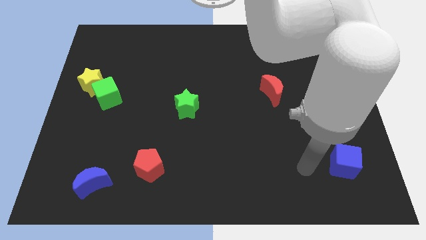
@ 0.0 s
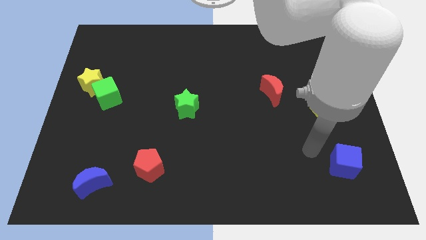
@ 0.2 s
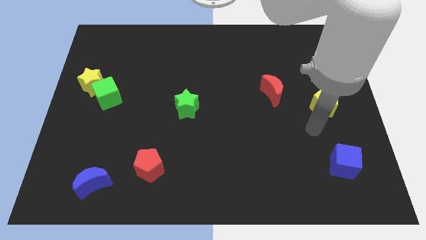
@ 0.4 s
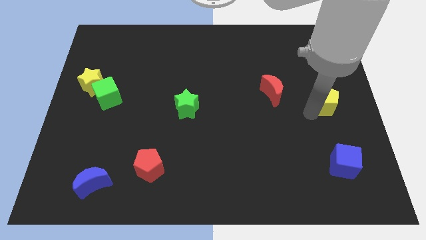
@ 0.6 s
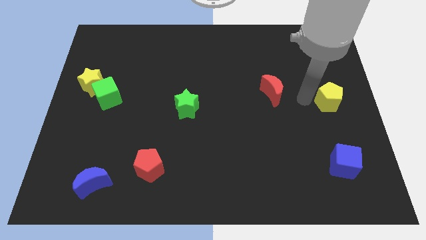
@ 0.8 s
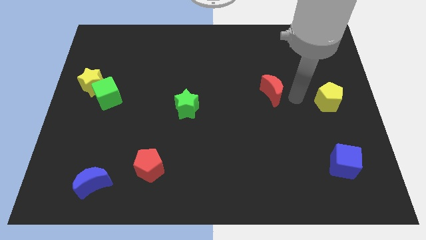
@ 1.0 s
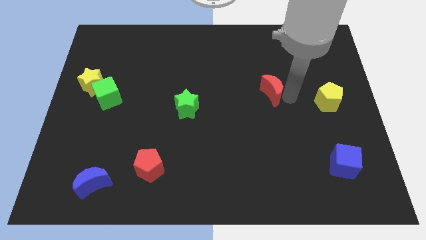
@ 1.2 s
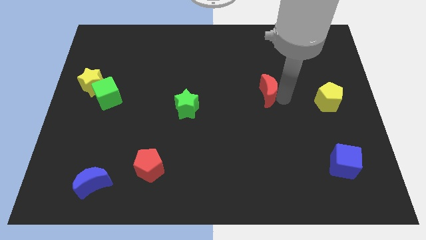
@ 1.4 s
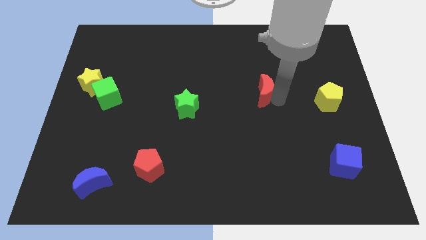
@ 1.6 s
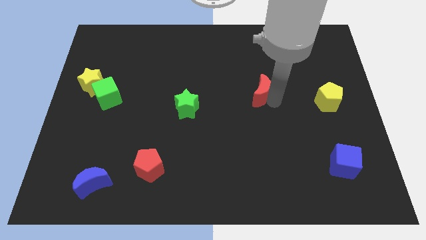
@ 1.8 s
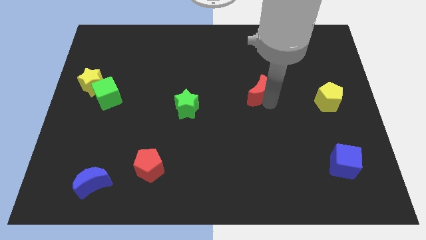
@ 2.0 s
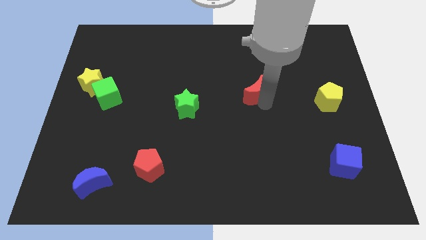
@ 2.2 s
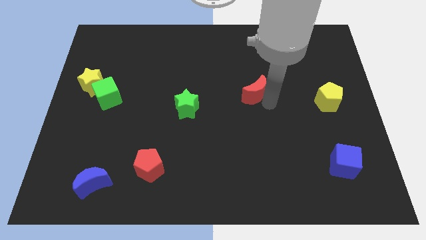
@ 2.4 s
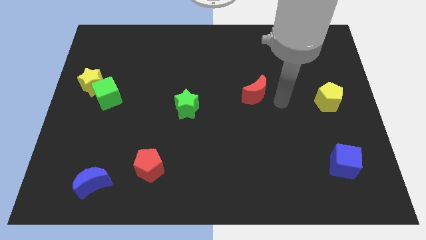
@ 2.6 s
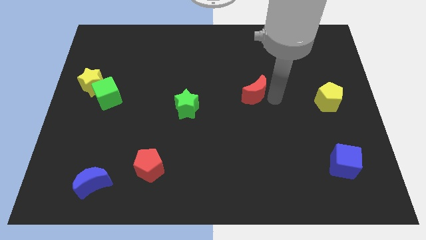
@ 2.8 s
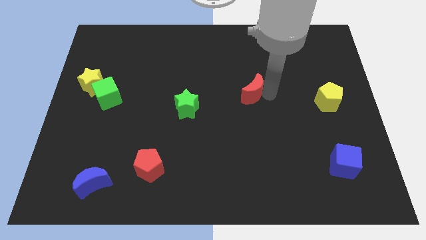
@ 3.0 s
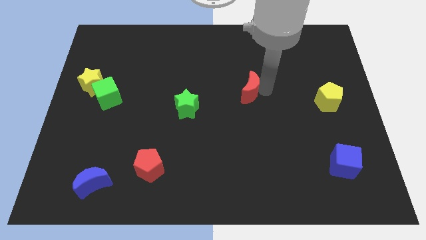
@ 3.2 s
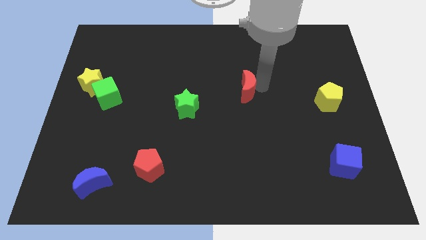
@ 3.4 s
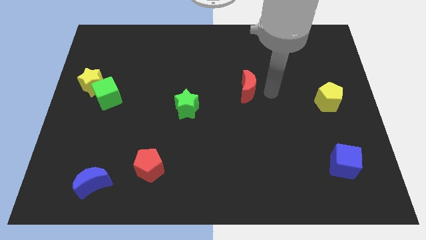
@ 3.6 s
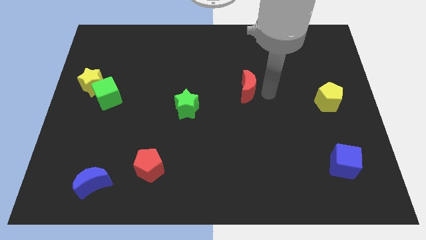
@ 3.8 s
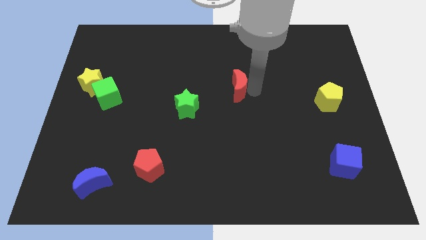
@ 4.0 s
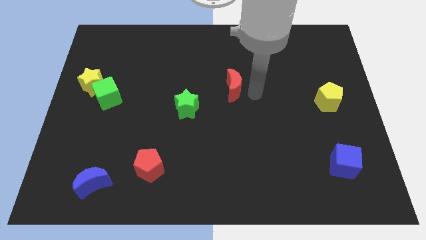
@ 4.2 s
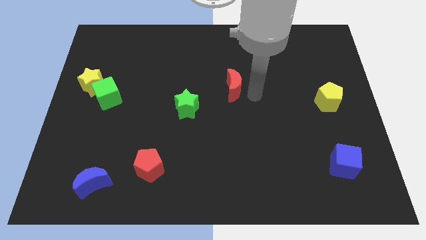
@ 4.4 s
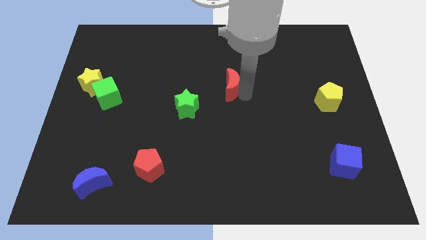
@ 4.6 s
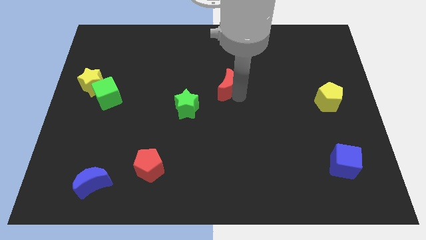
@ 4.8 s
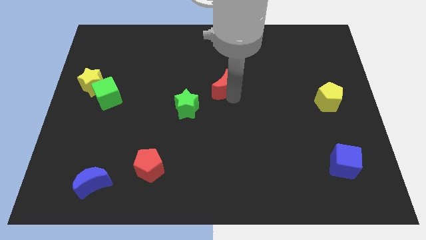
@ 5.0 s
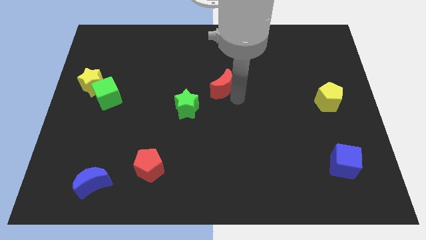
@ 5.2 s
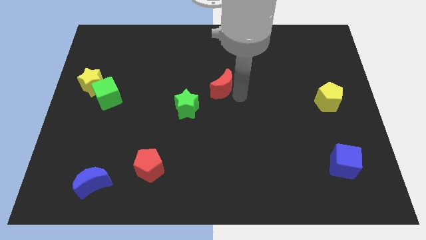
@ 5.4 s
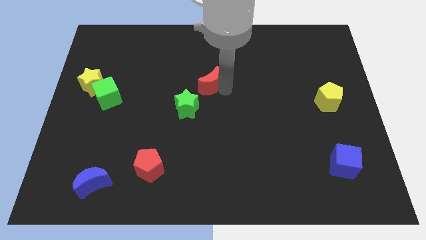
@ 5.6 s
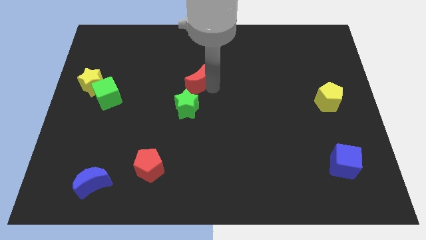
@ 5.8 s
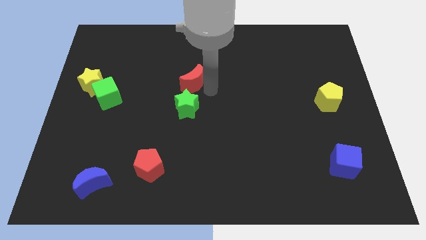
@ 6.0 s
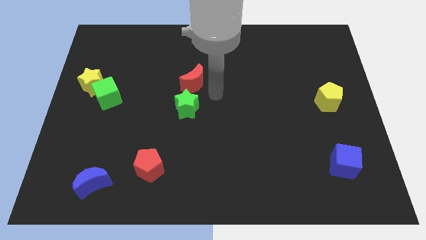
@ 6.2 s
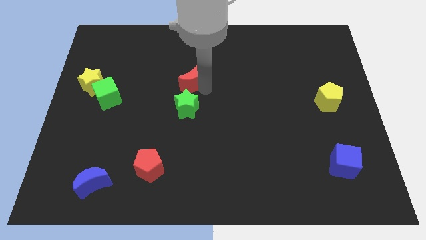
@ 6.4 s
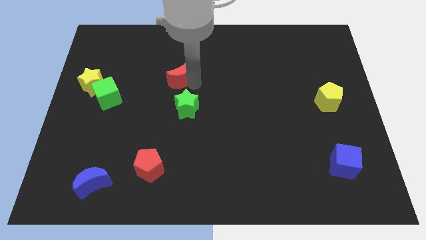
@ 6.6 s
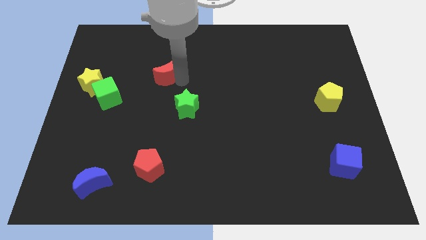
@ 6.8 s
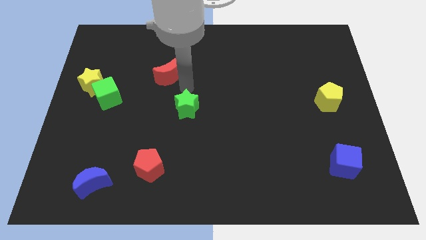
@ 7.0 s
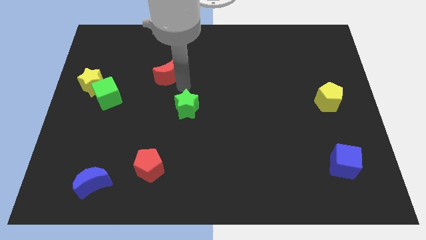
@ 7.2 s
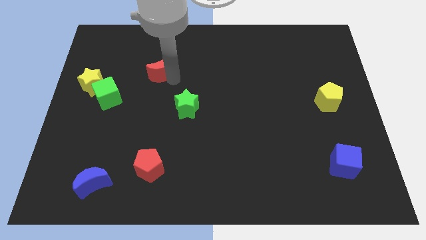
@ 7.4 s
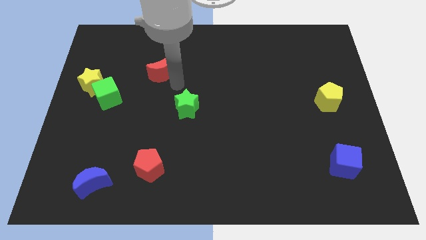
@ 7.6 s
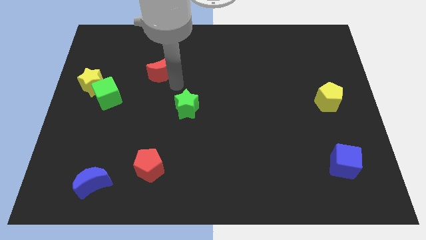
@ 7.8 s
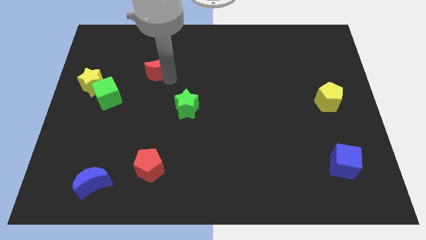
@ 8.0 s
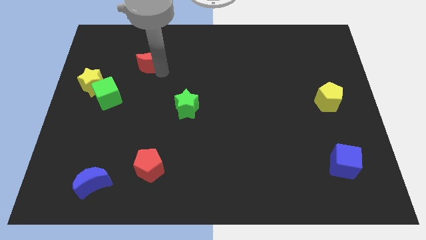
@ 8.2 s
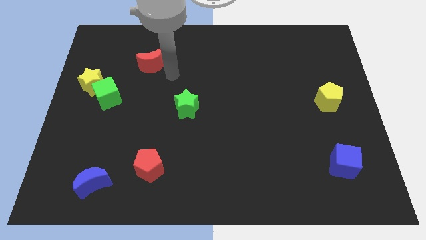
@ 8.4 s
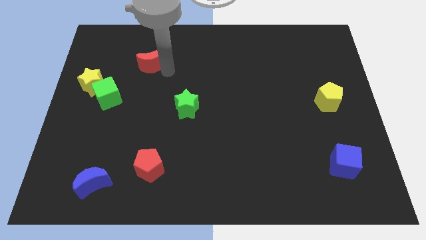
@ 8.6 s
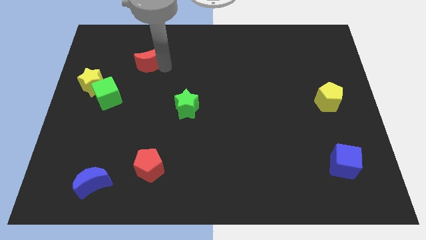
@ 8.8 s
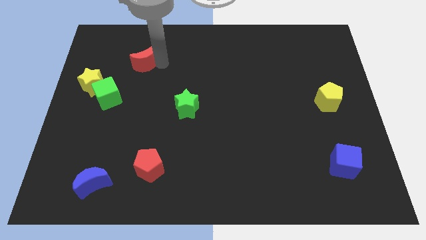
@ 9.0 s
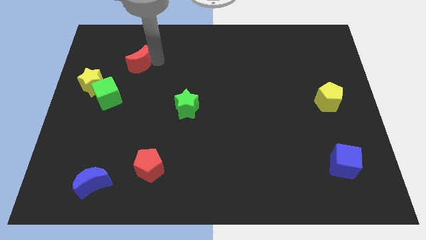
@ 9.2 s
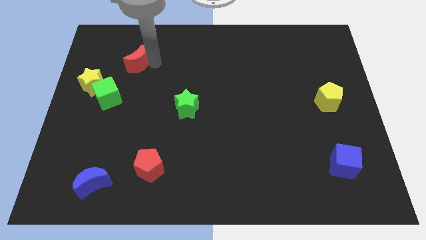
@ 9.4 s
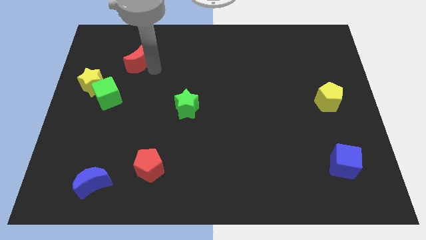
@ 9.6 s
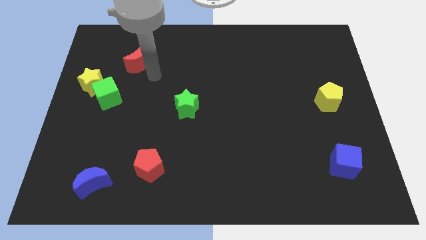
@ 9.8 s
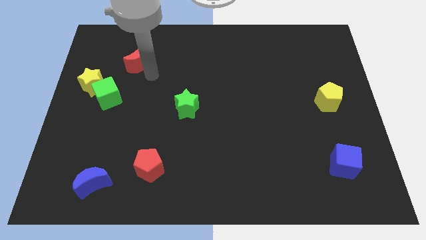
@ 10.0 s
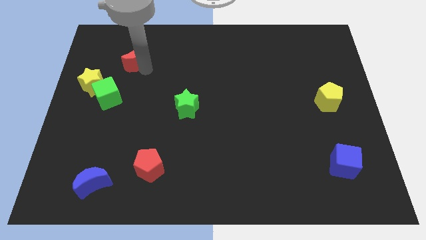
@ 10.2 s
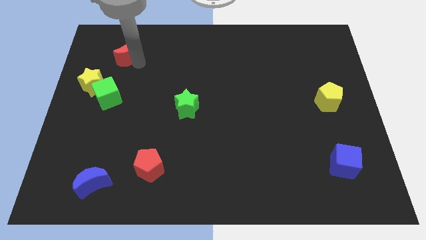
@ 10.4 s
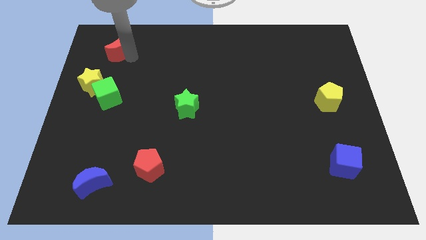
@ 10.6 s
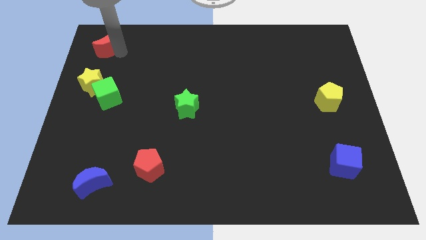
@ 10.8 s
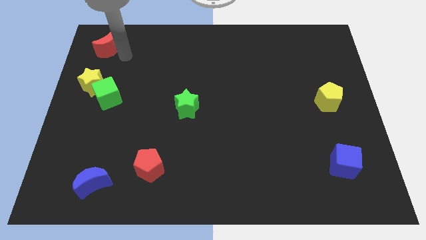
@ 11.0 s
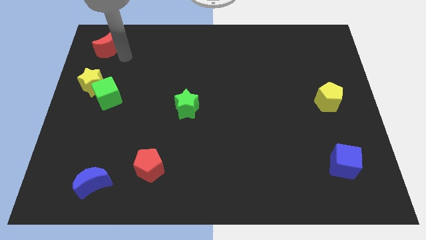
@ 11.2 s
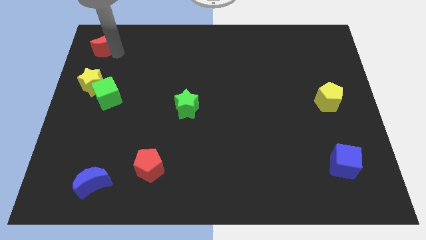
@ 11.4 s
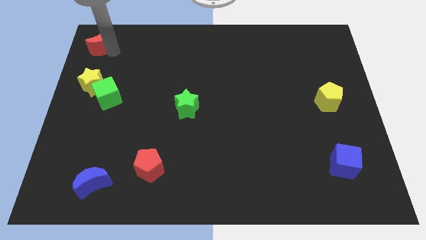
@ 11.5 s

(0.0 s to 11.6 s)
slide the red moon to the top left

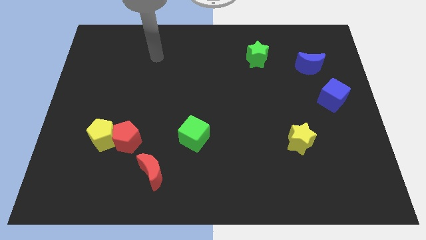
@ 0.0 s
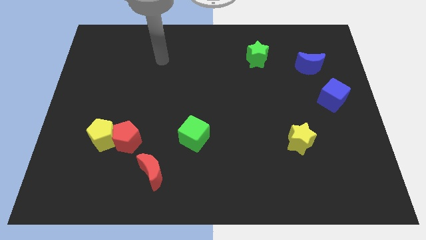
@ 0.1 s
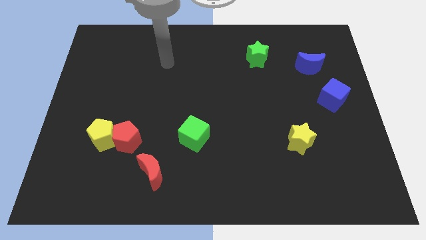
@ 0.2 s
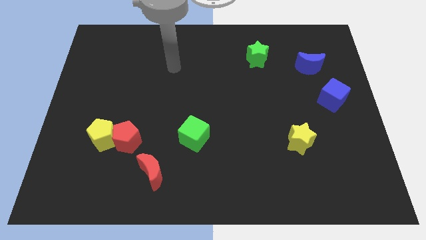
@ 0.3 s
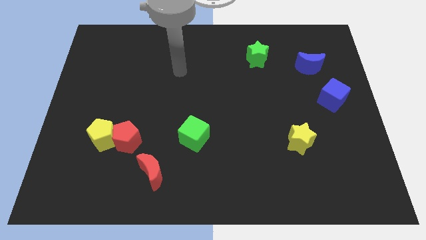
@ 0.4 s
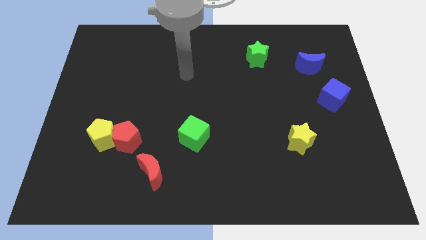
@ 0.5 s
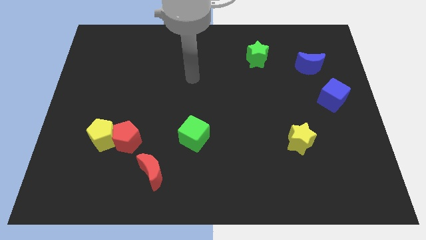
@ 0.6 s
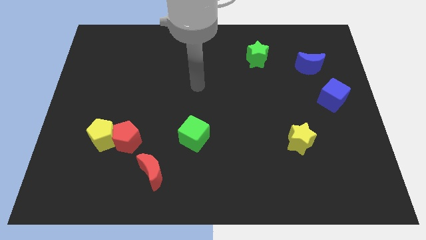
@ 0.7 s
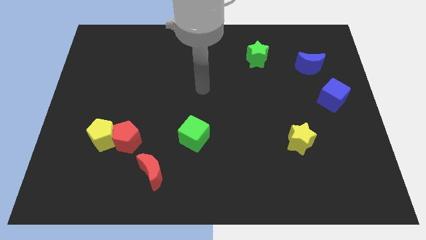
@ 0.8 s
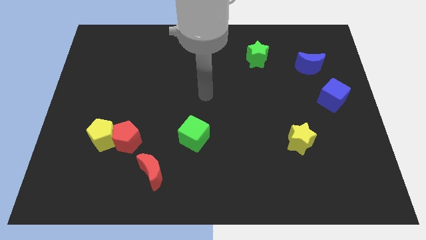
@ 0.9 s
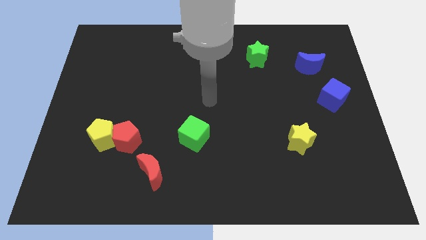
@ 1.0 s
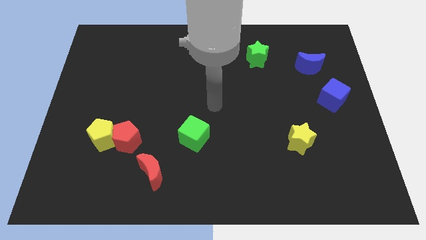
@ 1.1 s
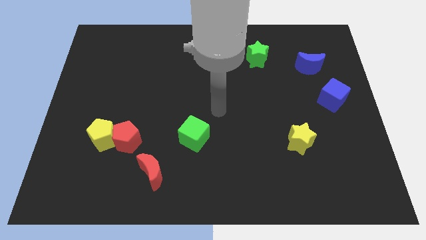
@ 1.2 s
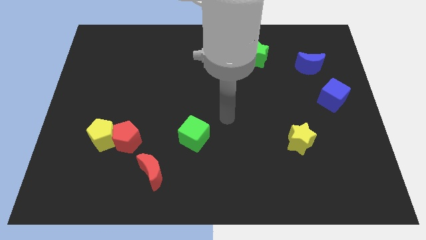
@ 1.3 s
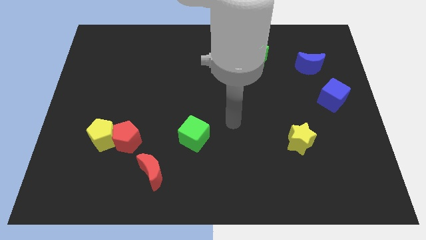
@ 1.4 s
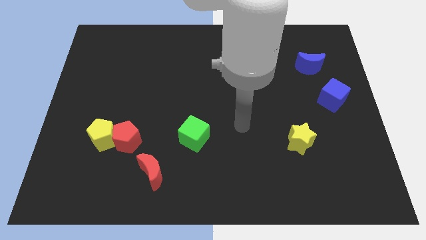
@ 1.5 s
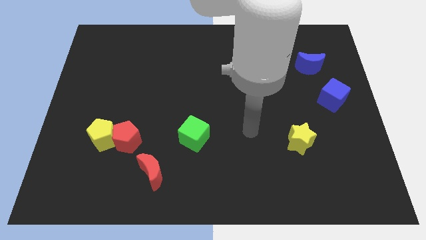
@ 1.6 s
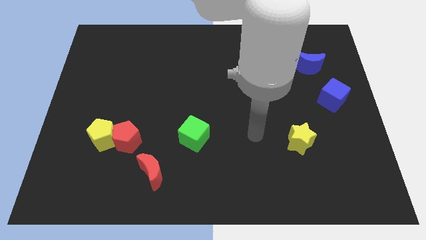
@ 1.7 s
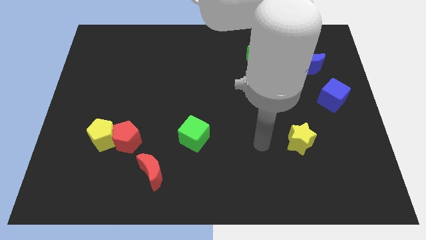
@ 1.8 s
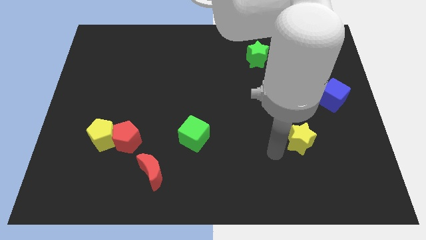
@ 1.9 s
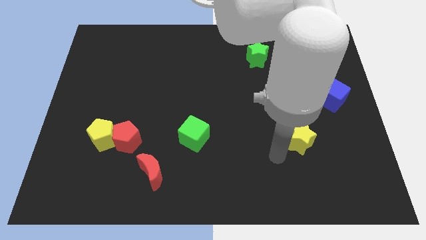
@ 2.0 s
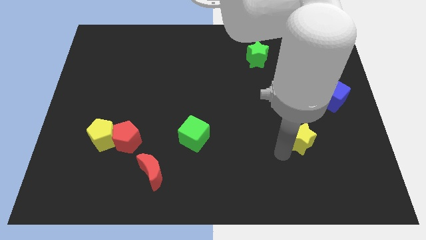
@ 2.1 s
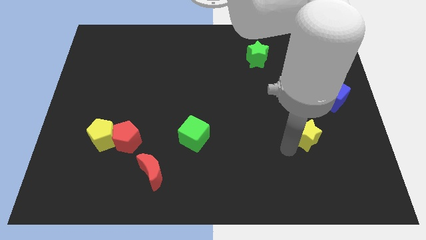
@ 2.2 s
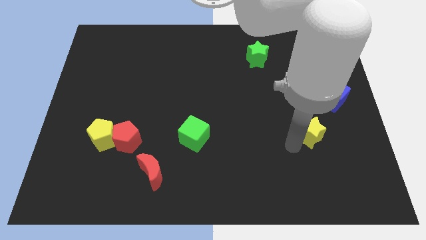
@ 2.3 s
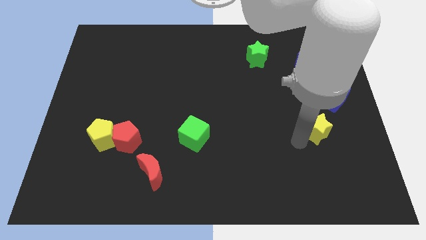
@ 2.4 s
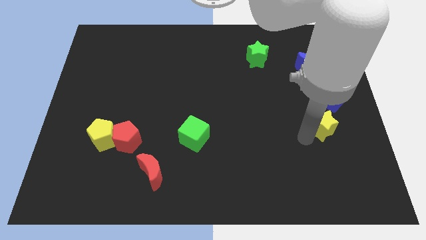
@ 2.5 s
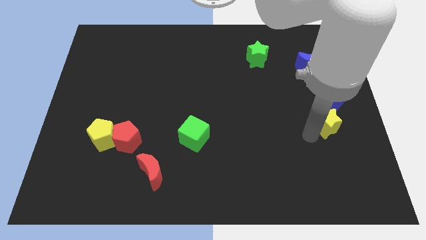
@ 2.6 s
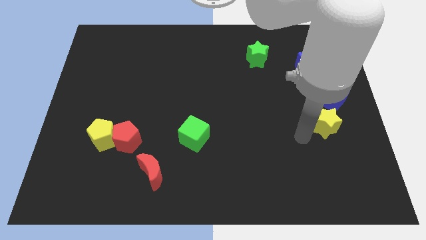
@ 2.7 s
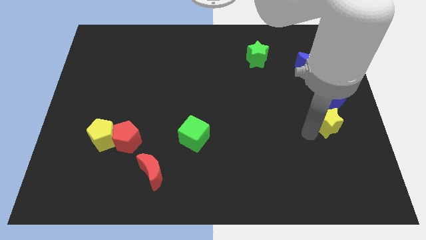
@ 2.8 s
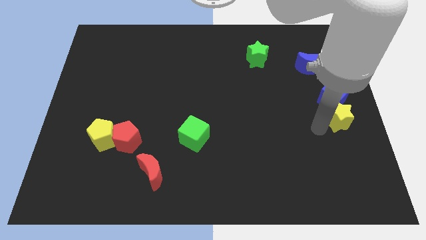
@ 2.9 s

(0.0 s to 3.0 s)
push the yellow star to the center right
